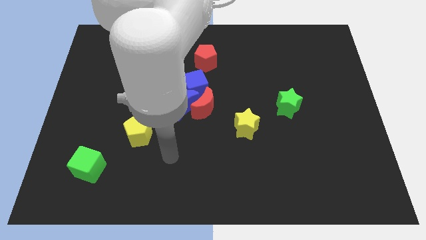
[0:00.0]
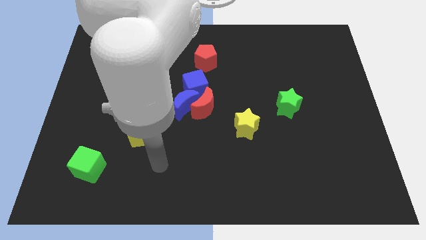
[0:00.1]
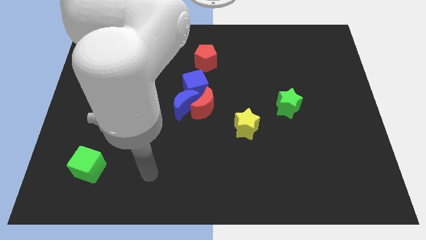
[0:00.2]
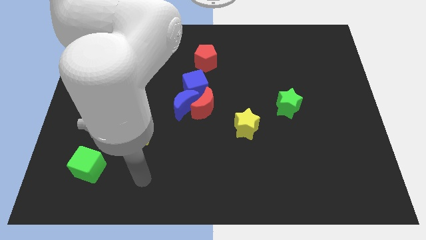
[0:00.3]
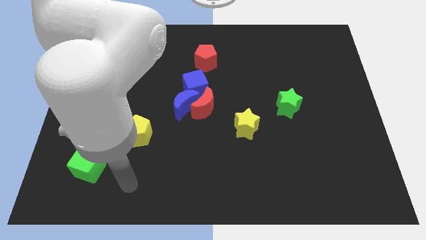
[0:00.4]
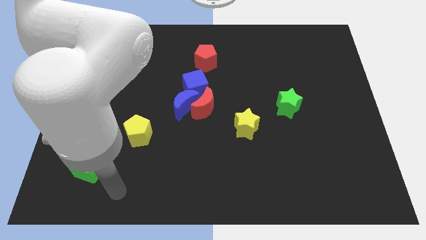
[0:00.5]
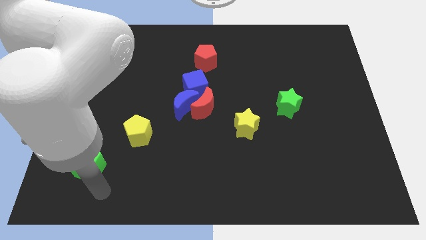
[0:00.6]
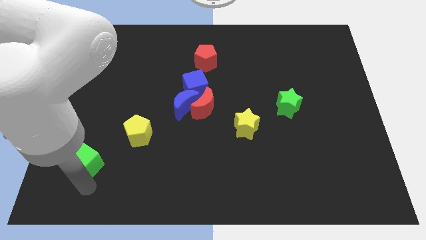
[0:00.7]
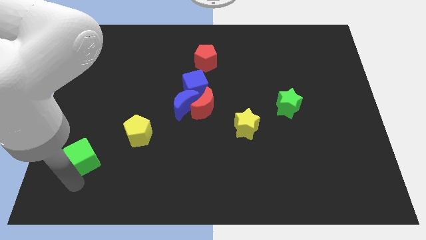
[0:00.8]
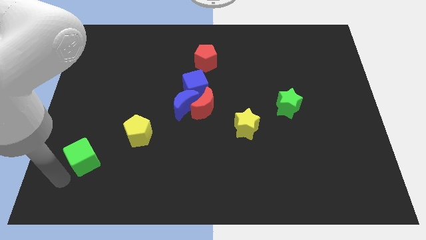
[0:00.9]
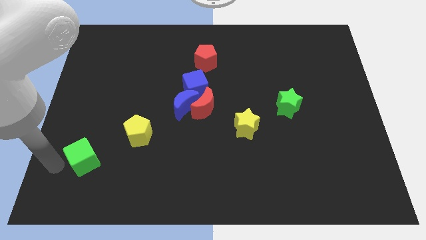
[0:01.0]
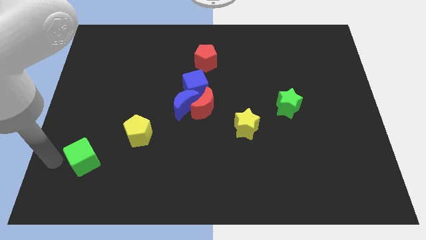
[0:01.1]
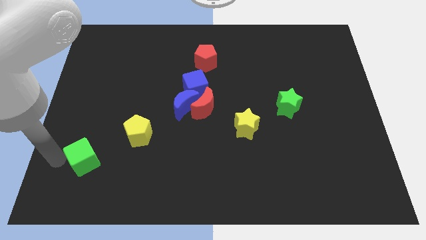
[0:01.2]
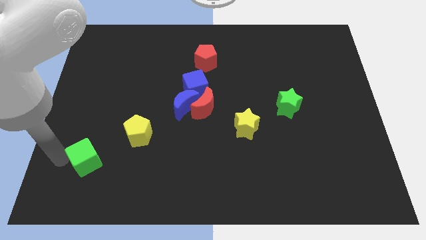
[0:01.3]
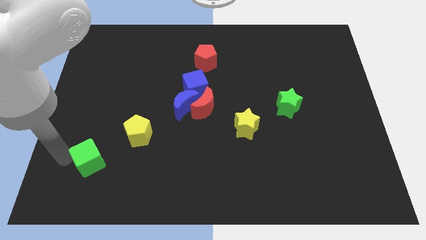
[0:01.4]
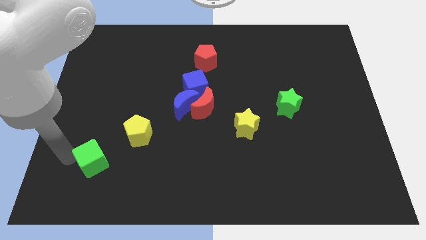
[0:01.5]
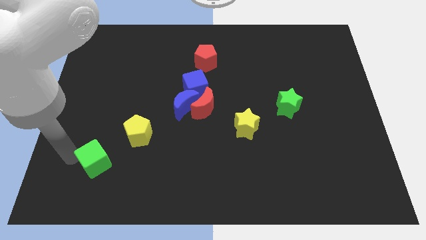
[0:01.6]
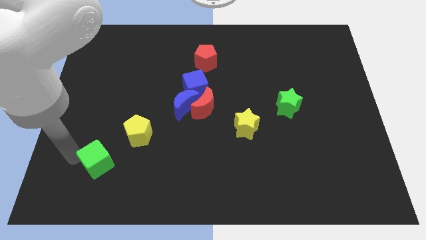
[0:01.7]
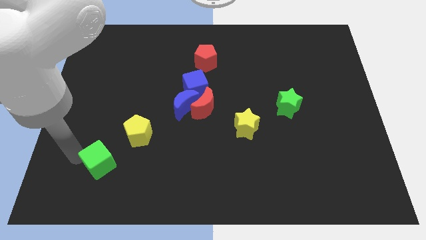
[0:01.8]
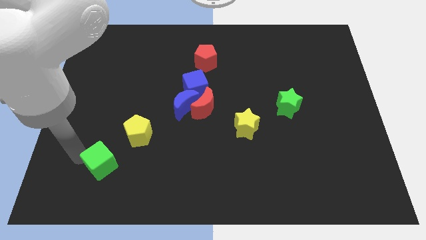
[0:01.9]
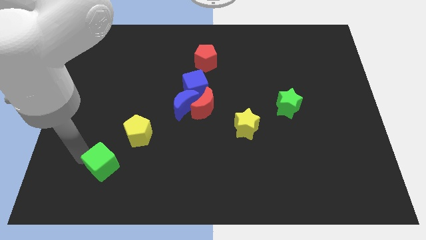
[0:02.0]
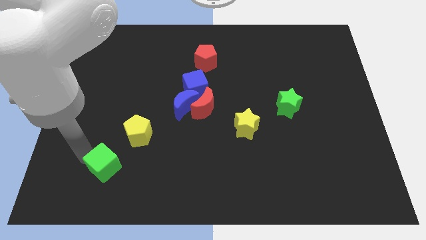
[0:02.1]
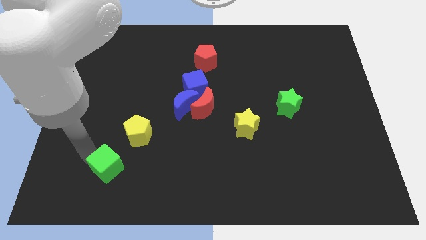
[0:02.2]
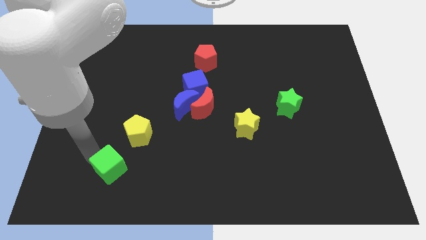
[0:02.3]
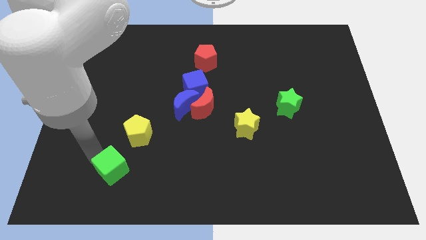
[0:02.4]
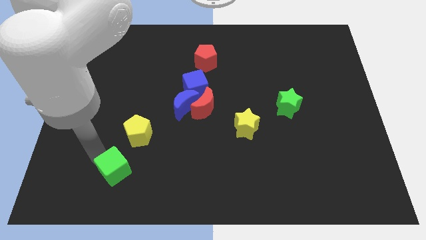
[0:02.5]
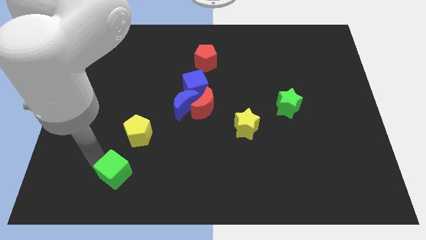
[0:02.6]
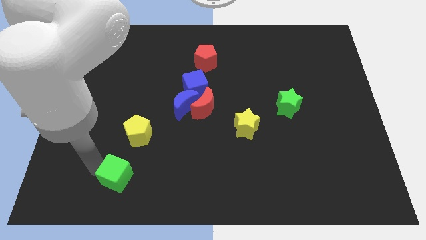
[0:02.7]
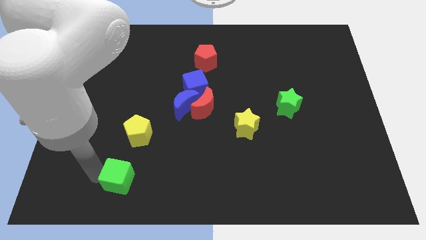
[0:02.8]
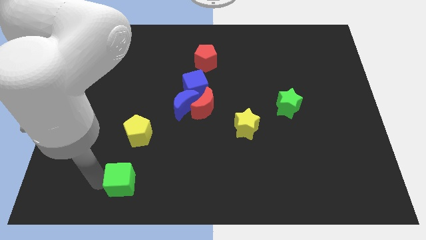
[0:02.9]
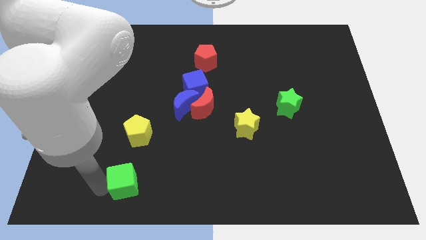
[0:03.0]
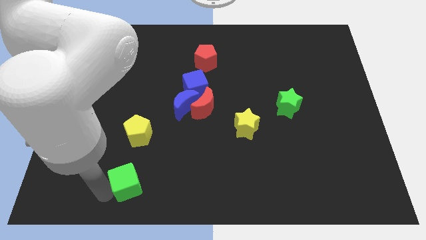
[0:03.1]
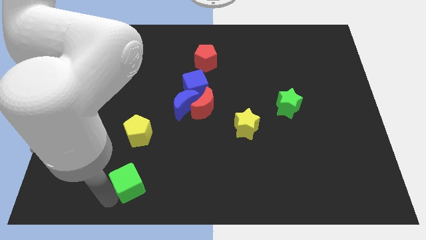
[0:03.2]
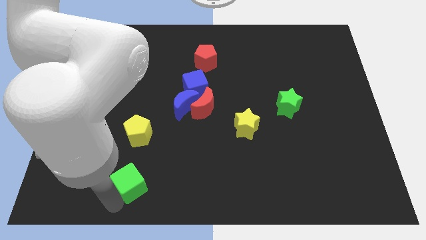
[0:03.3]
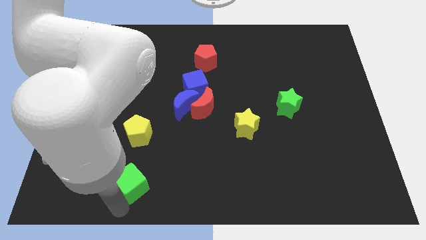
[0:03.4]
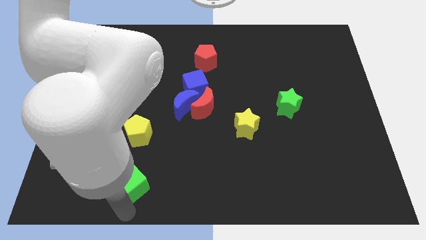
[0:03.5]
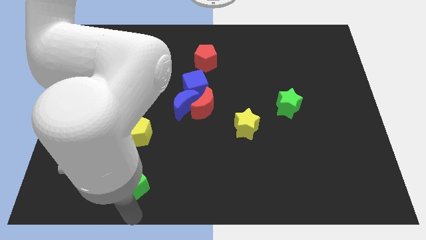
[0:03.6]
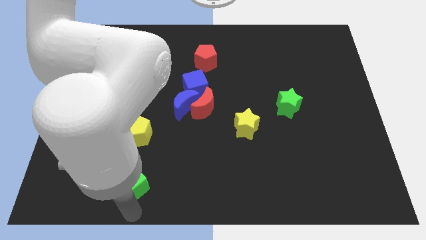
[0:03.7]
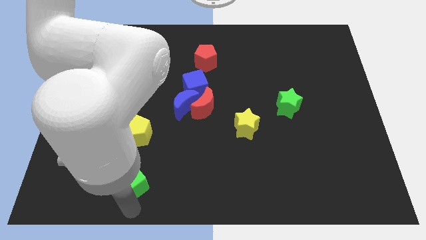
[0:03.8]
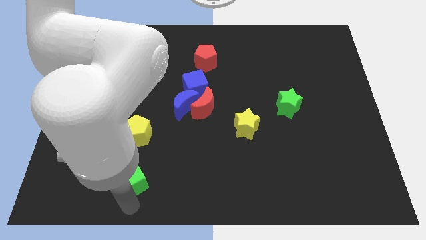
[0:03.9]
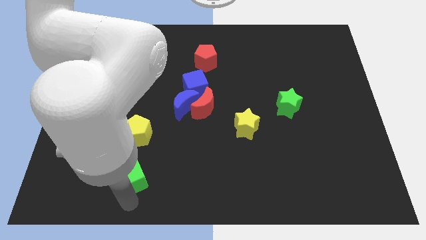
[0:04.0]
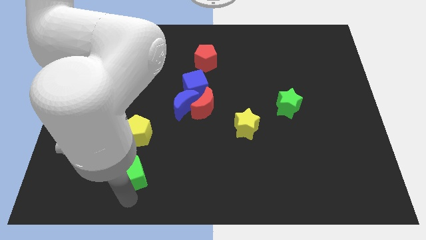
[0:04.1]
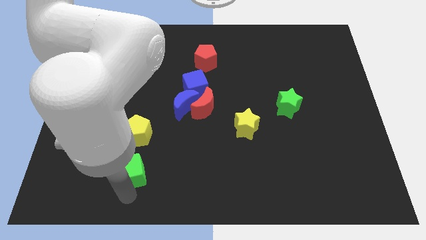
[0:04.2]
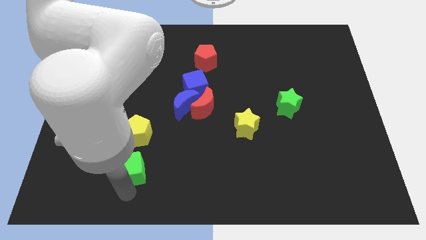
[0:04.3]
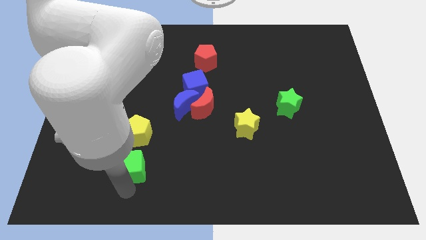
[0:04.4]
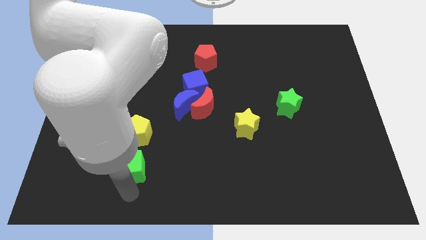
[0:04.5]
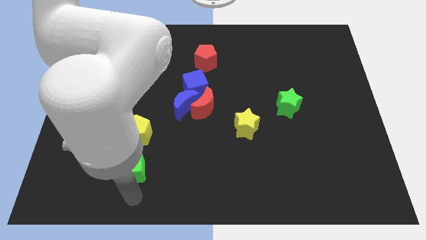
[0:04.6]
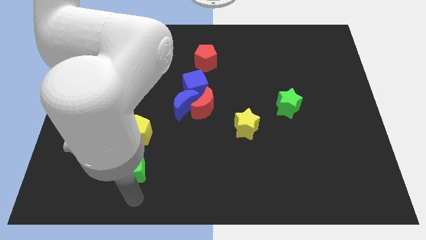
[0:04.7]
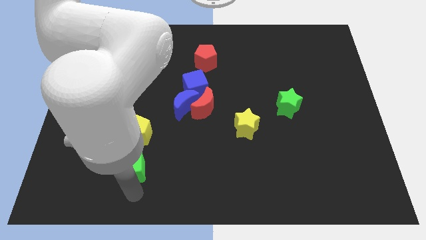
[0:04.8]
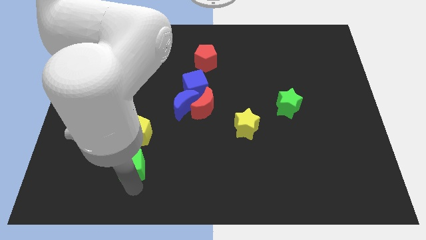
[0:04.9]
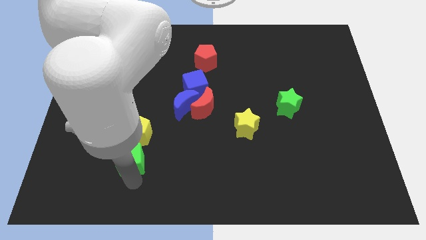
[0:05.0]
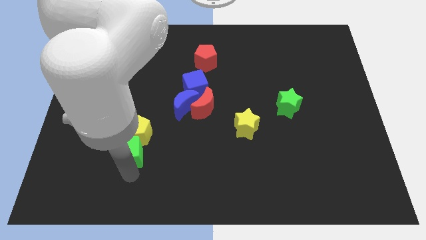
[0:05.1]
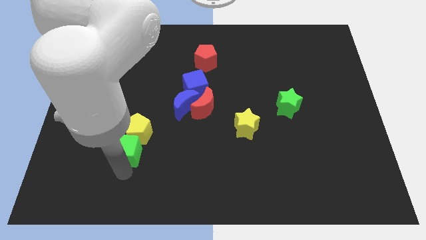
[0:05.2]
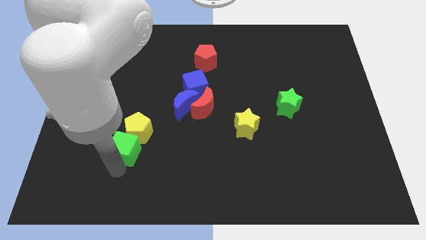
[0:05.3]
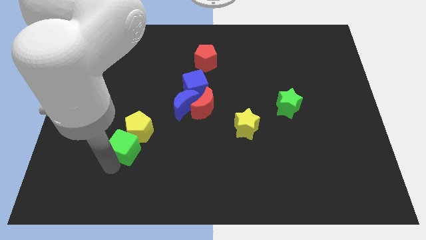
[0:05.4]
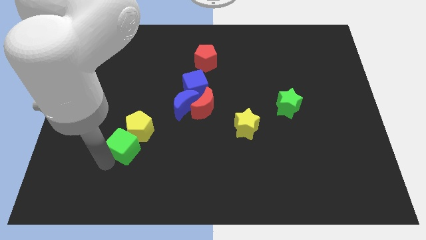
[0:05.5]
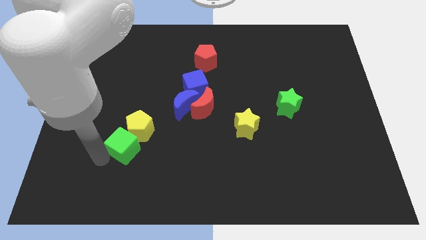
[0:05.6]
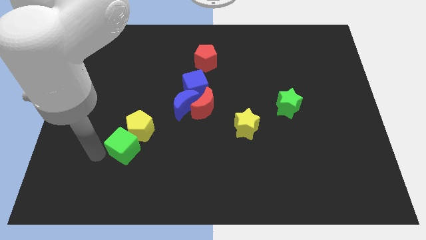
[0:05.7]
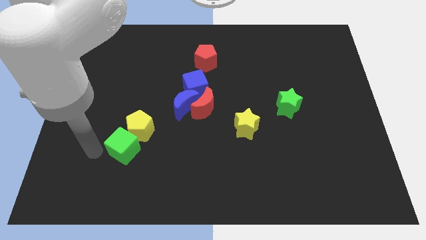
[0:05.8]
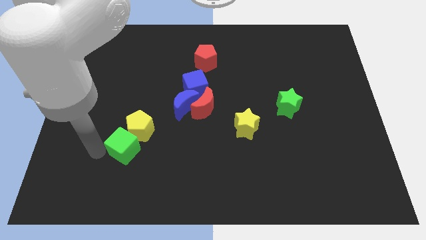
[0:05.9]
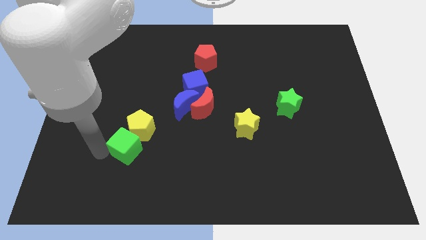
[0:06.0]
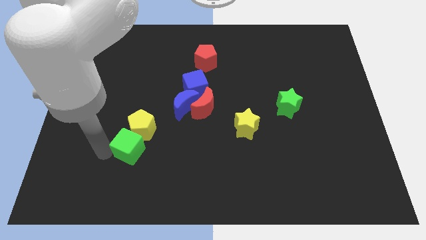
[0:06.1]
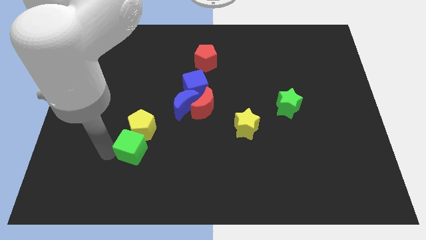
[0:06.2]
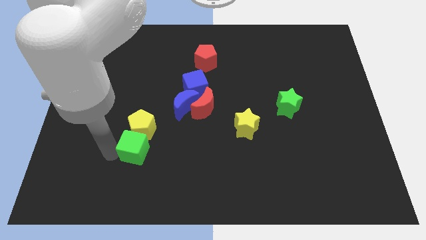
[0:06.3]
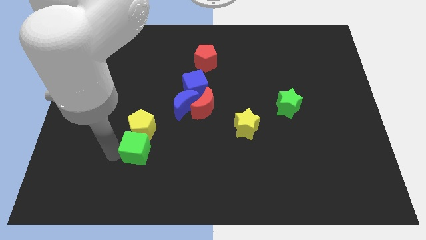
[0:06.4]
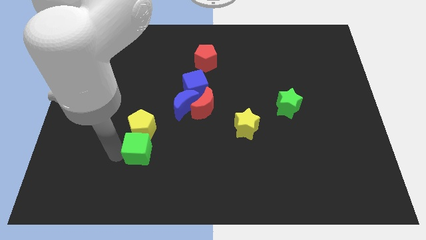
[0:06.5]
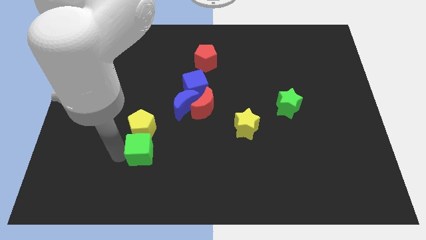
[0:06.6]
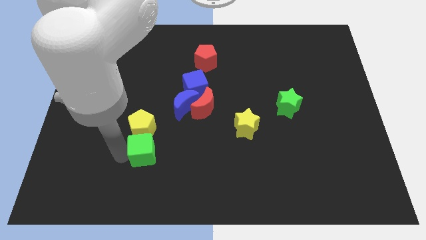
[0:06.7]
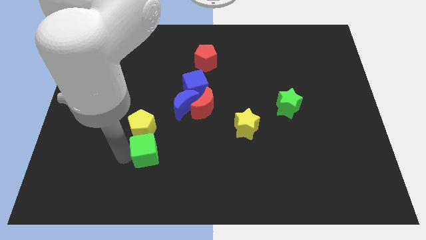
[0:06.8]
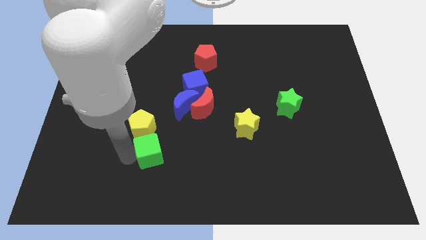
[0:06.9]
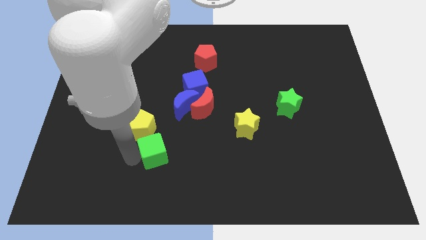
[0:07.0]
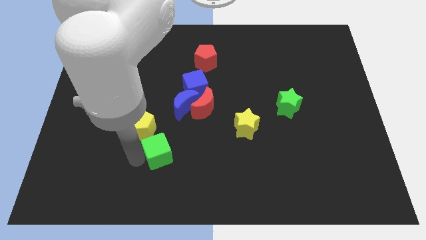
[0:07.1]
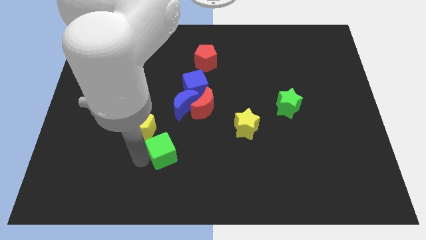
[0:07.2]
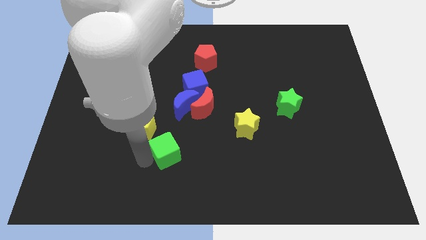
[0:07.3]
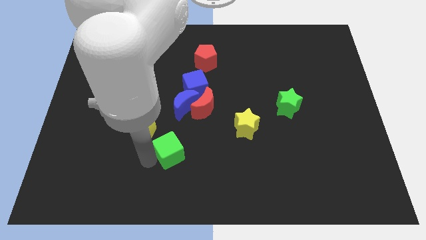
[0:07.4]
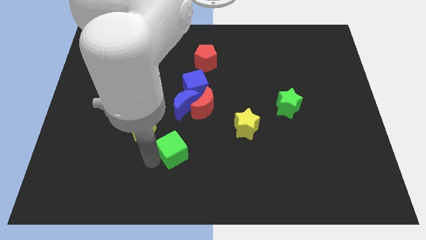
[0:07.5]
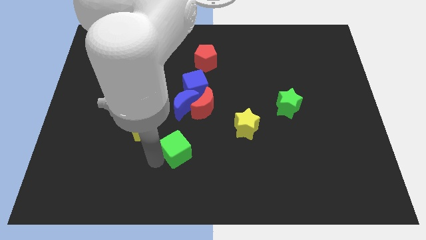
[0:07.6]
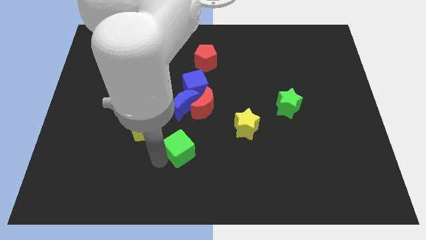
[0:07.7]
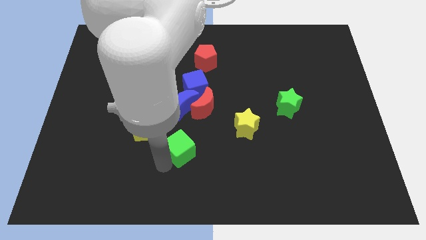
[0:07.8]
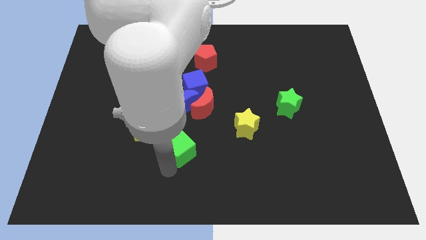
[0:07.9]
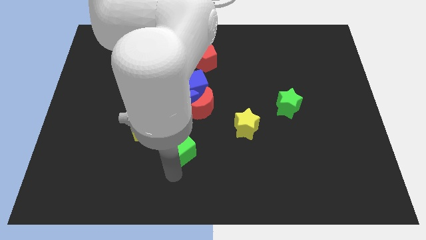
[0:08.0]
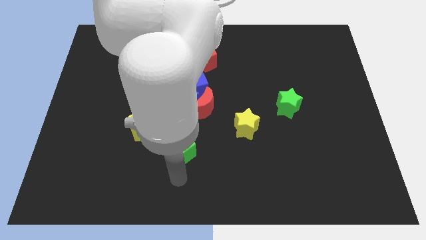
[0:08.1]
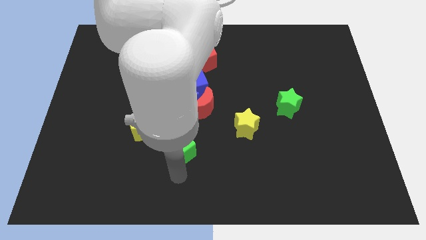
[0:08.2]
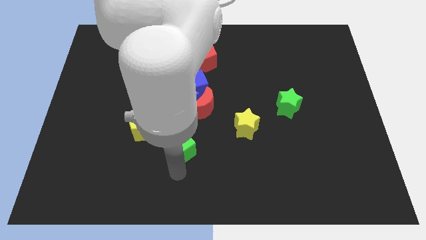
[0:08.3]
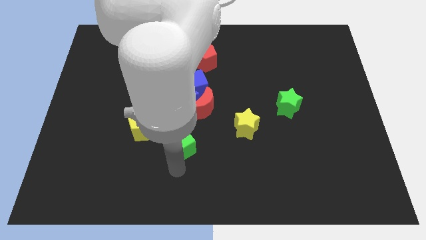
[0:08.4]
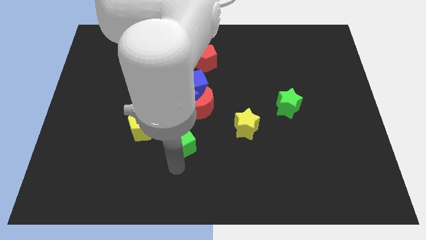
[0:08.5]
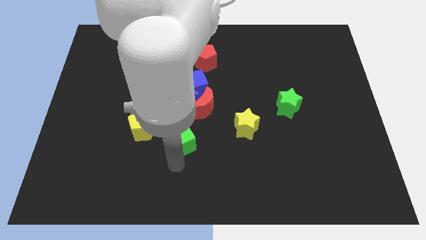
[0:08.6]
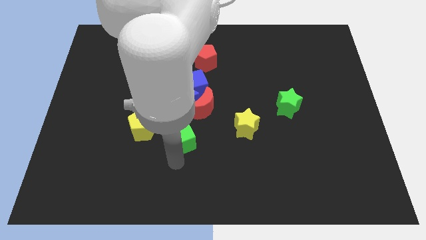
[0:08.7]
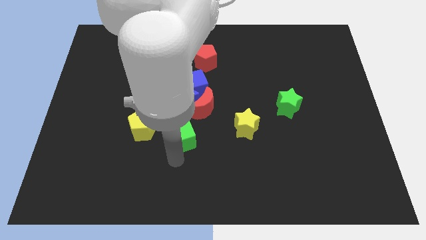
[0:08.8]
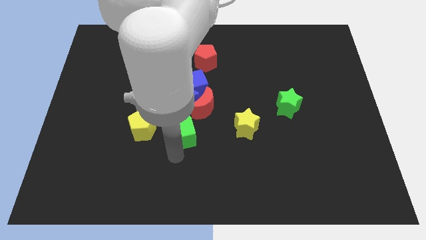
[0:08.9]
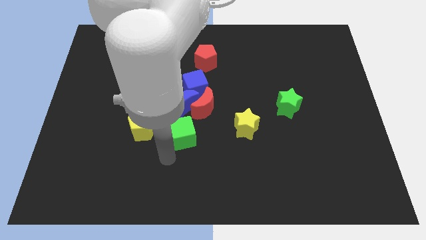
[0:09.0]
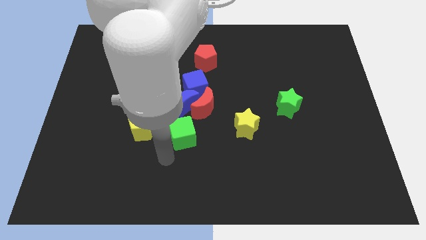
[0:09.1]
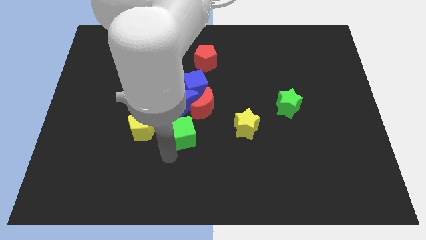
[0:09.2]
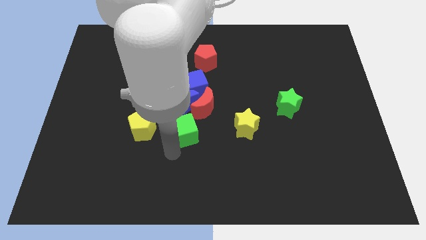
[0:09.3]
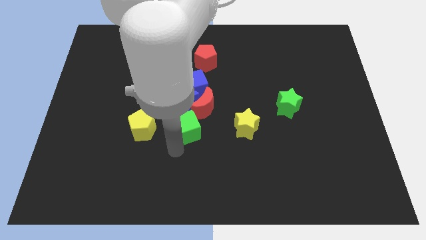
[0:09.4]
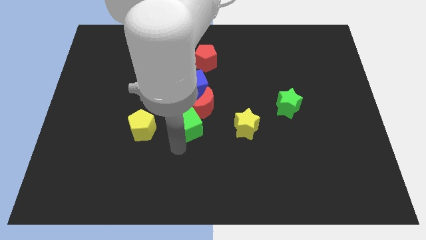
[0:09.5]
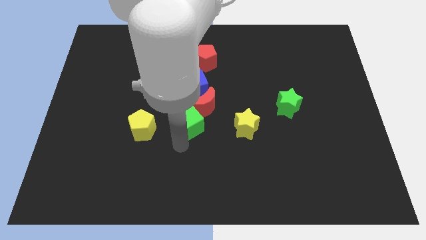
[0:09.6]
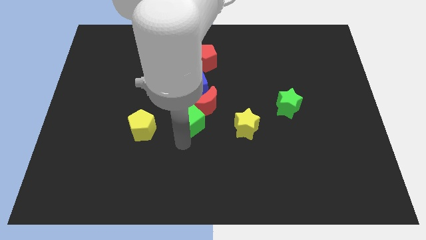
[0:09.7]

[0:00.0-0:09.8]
move the green cube next to the red moon
